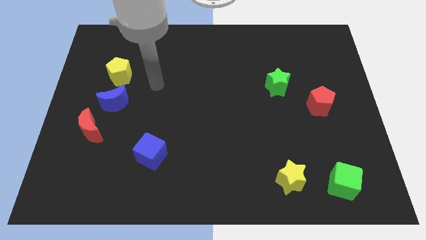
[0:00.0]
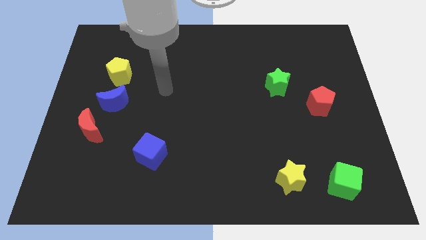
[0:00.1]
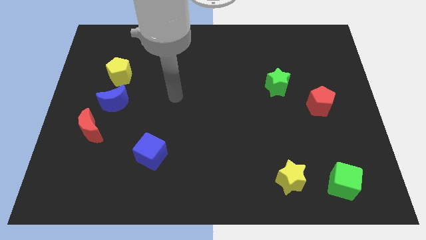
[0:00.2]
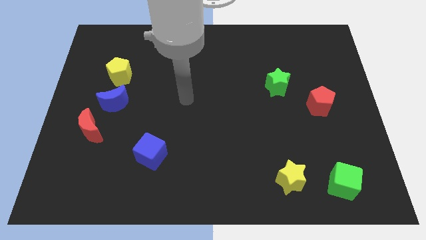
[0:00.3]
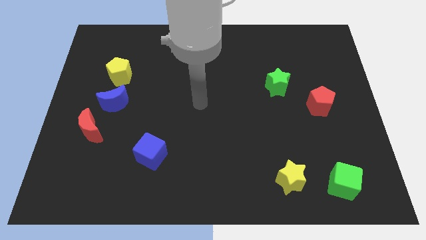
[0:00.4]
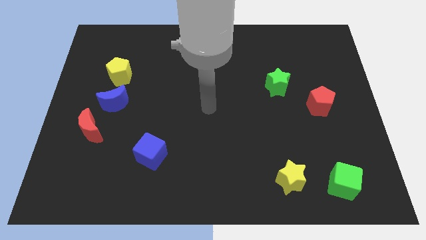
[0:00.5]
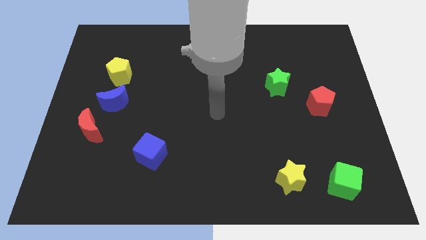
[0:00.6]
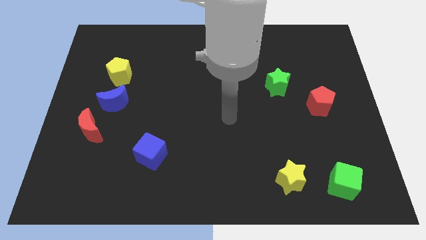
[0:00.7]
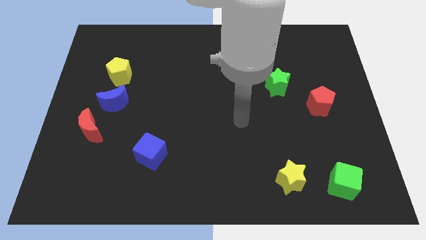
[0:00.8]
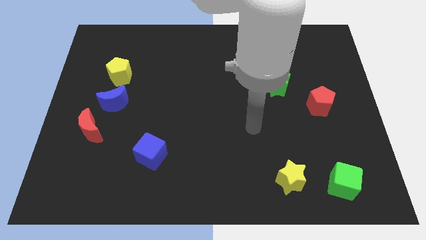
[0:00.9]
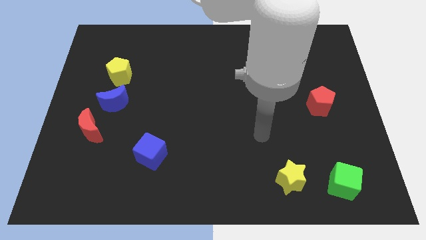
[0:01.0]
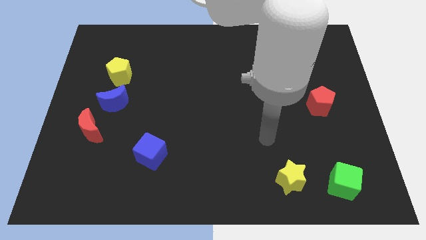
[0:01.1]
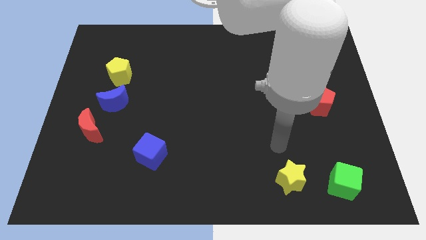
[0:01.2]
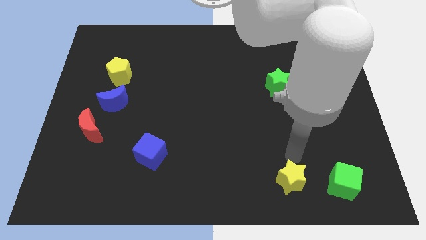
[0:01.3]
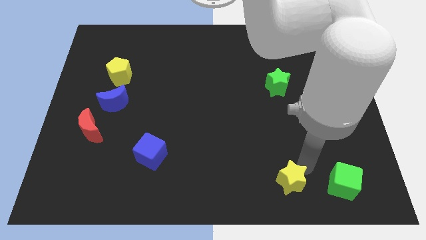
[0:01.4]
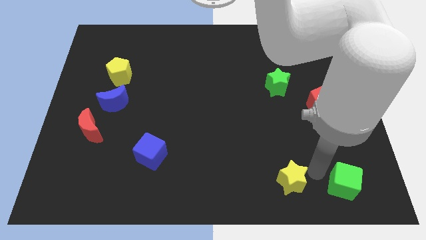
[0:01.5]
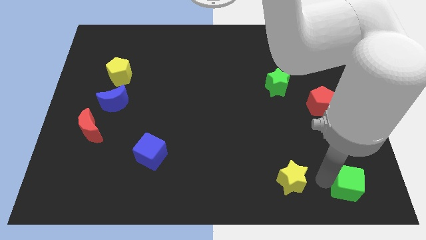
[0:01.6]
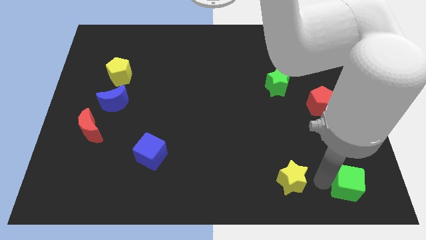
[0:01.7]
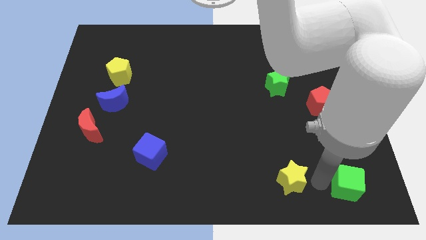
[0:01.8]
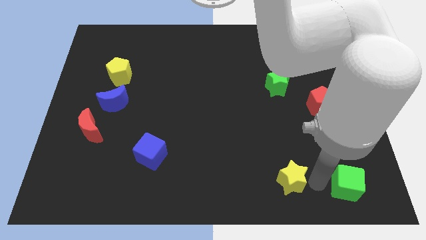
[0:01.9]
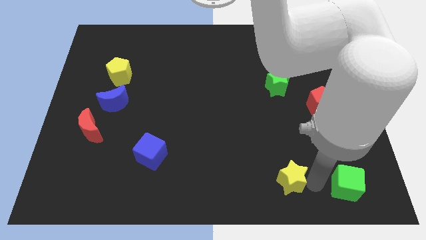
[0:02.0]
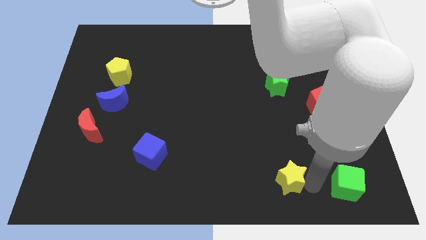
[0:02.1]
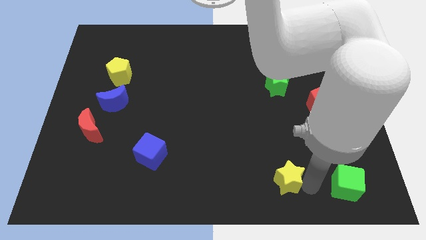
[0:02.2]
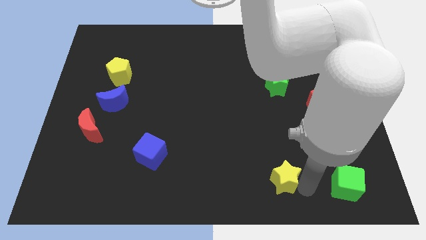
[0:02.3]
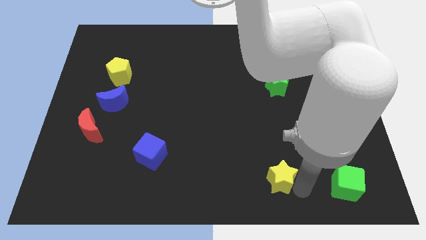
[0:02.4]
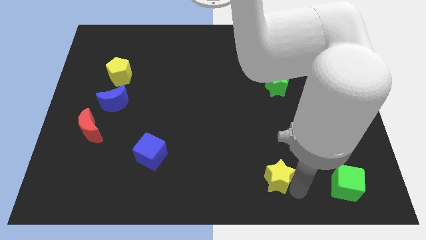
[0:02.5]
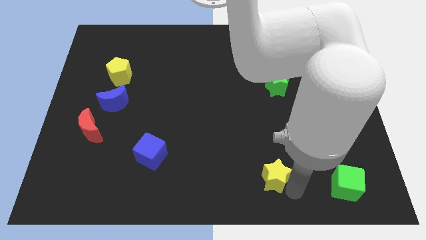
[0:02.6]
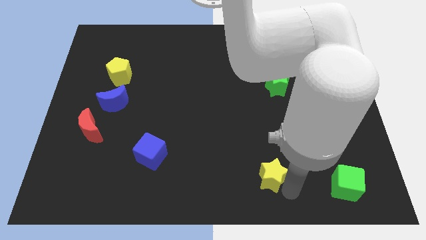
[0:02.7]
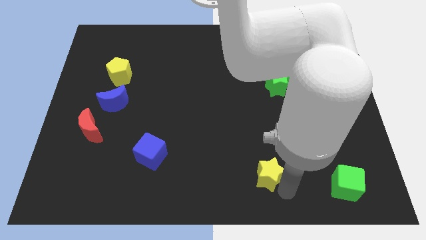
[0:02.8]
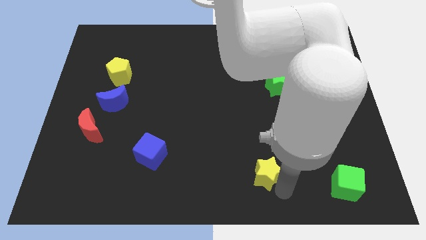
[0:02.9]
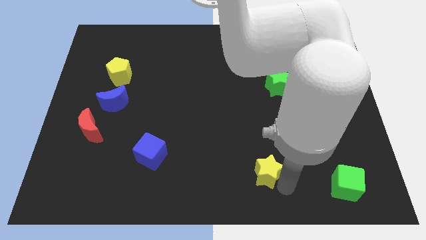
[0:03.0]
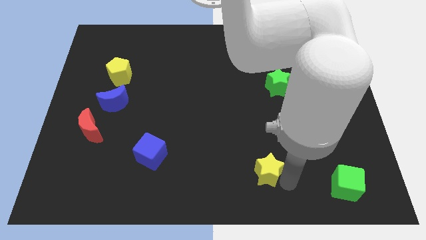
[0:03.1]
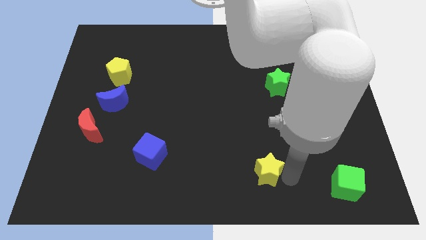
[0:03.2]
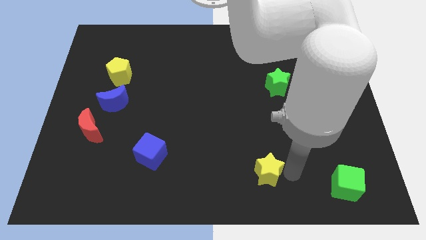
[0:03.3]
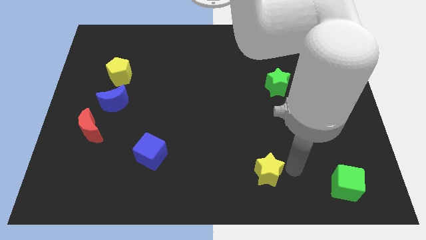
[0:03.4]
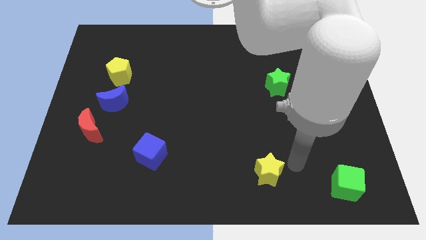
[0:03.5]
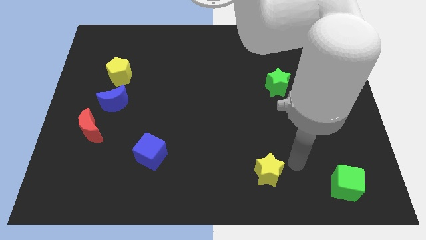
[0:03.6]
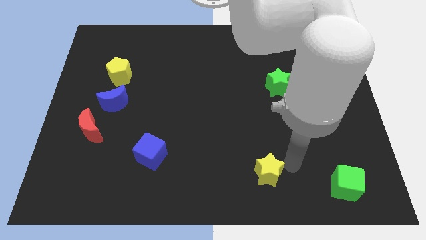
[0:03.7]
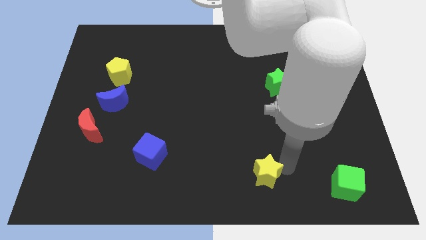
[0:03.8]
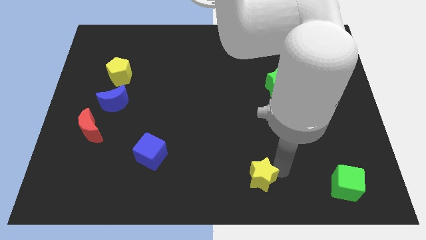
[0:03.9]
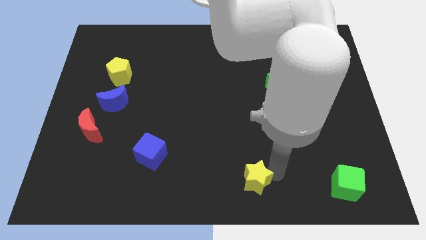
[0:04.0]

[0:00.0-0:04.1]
move the yellow star a little bit left

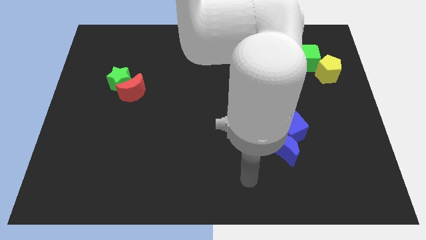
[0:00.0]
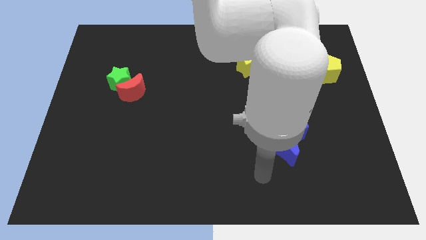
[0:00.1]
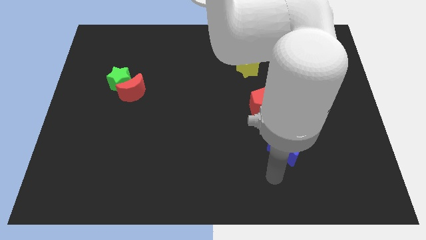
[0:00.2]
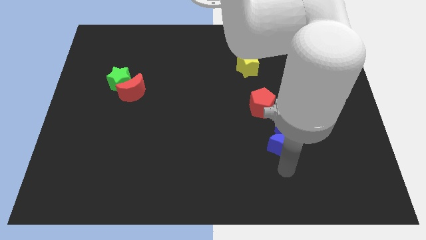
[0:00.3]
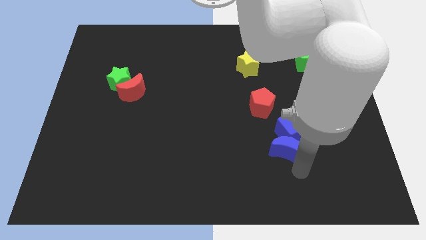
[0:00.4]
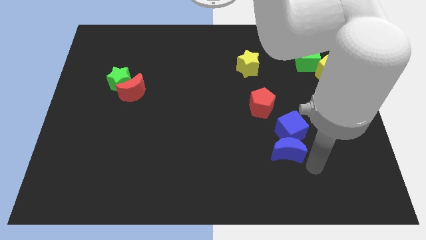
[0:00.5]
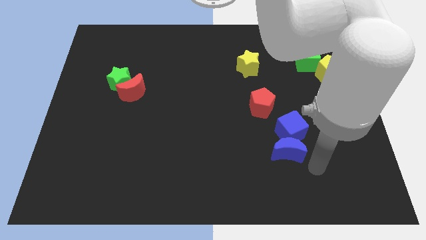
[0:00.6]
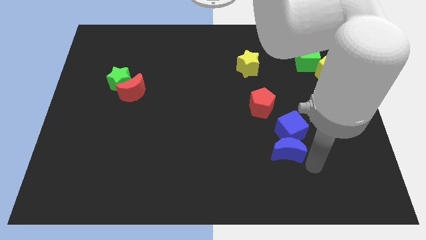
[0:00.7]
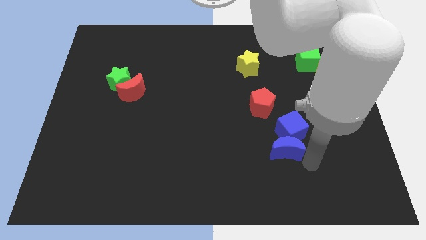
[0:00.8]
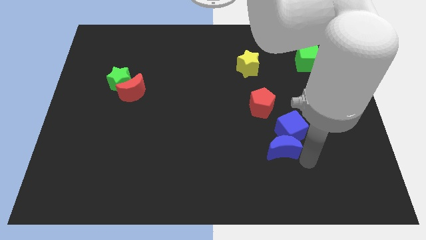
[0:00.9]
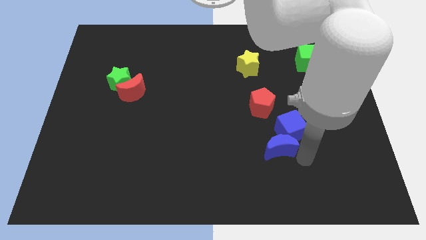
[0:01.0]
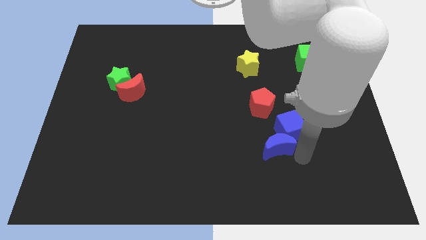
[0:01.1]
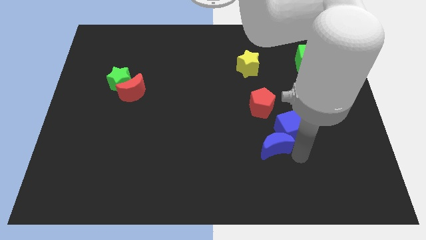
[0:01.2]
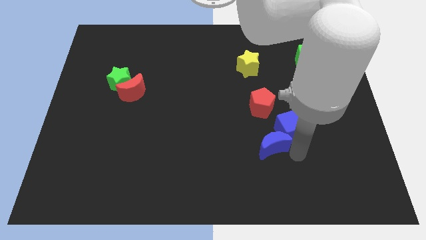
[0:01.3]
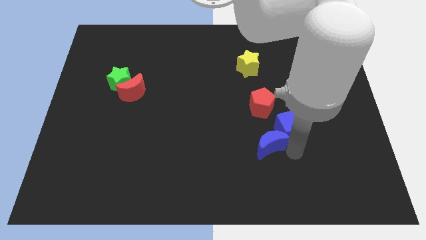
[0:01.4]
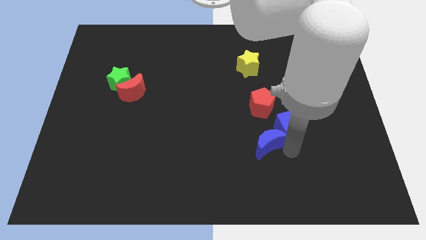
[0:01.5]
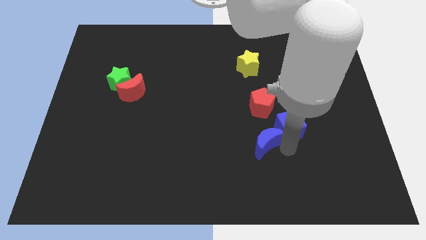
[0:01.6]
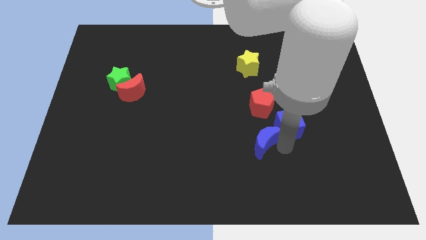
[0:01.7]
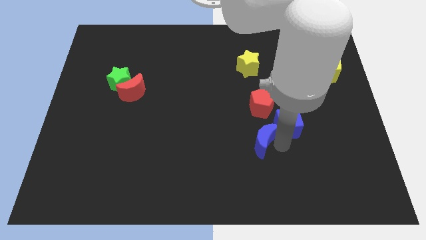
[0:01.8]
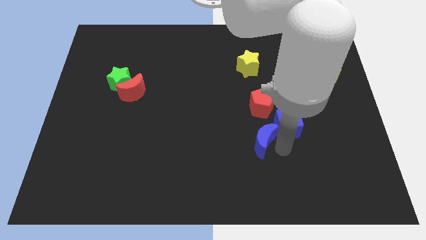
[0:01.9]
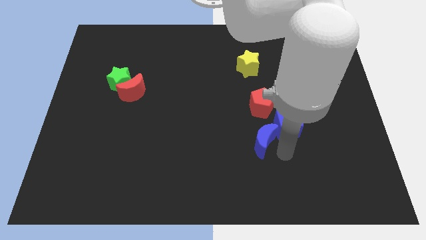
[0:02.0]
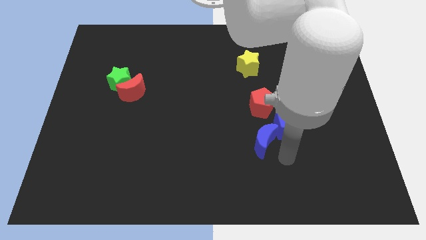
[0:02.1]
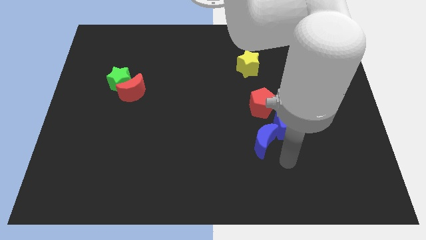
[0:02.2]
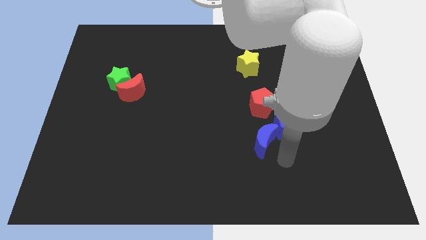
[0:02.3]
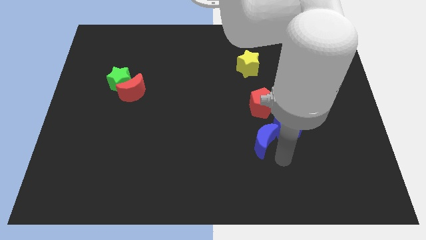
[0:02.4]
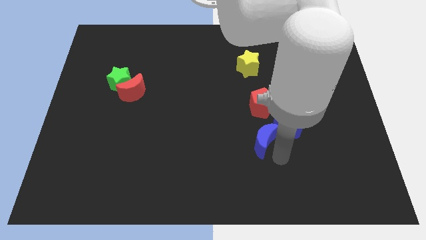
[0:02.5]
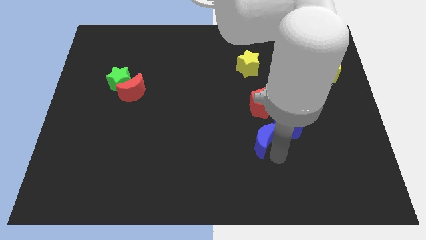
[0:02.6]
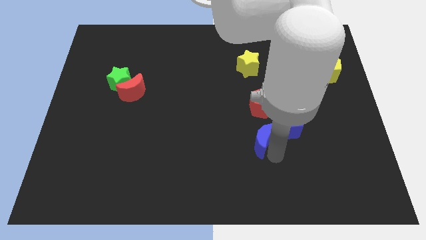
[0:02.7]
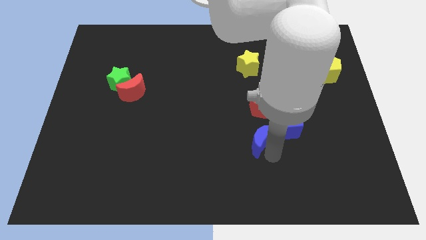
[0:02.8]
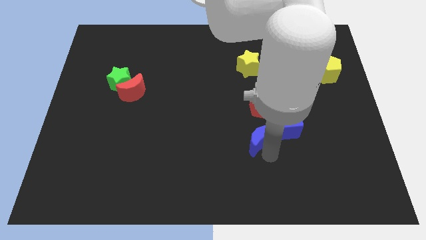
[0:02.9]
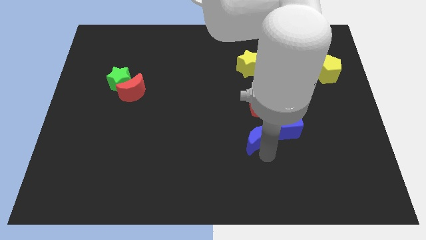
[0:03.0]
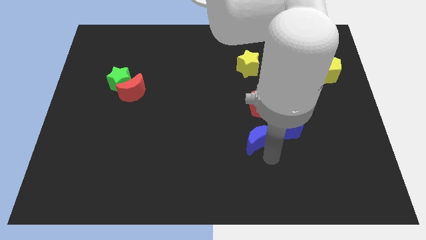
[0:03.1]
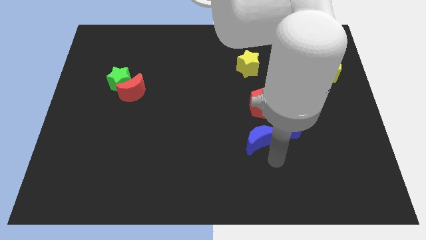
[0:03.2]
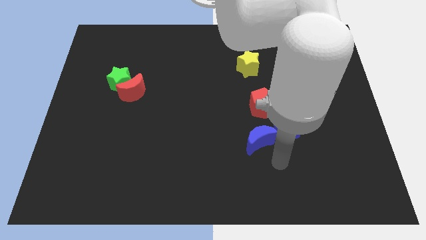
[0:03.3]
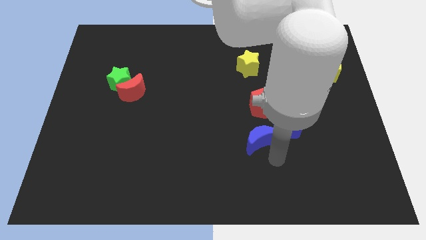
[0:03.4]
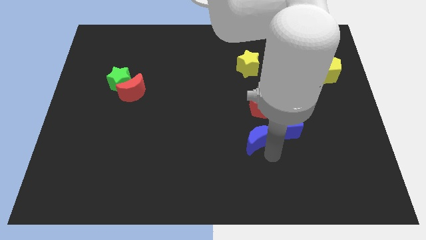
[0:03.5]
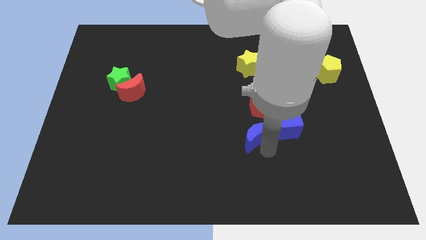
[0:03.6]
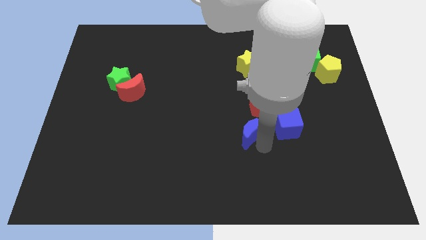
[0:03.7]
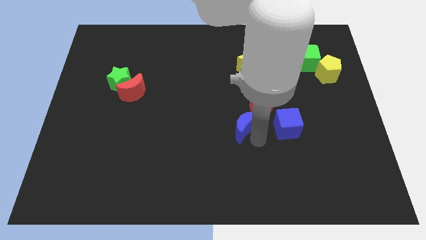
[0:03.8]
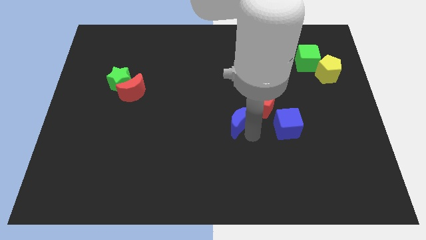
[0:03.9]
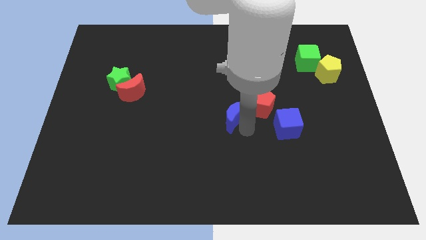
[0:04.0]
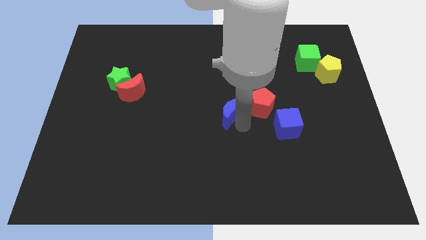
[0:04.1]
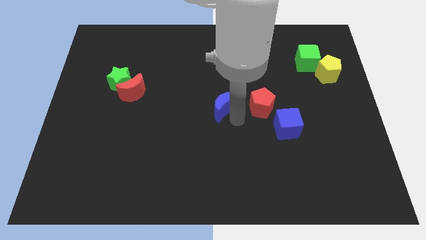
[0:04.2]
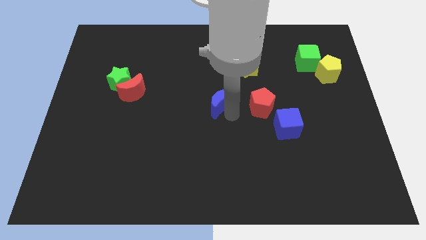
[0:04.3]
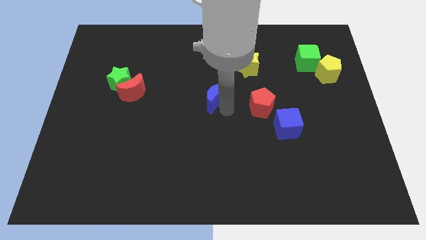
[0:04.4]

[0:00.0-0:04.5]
slide the blue moon diagonally upwards and left
